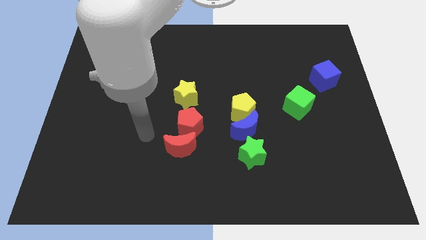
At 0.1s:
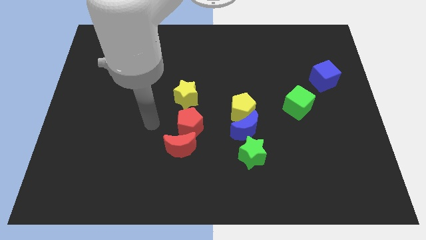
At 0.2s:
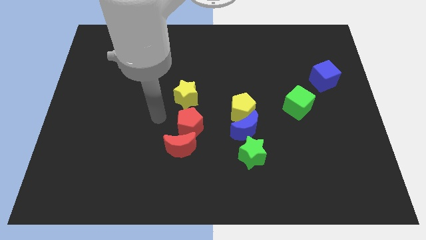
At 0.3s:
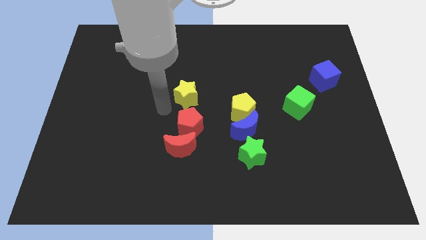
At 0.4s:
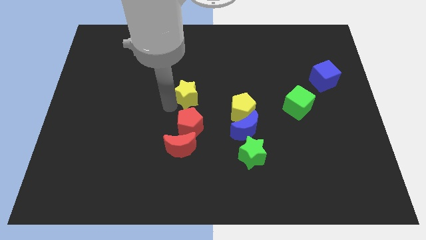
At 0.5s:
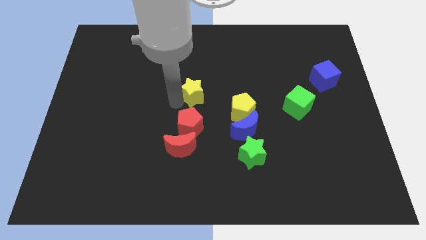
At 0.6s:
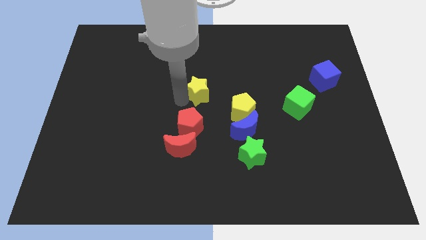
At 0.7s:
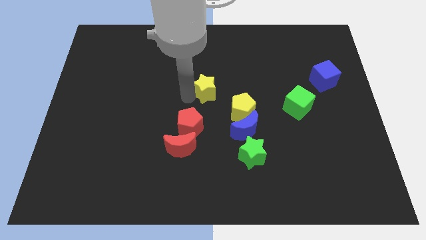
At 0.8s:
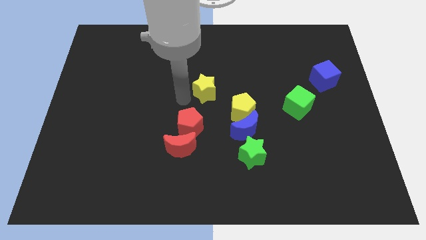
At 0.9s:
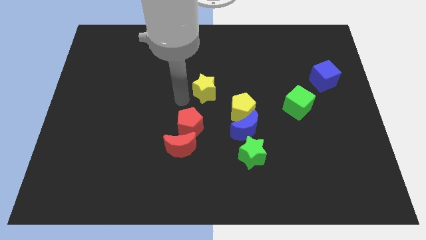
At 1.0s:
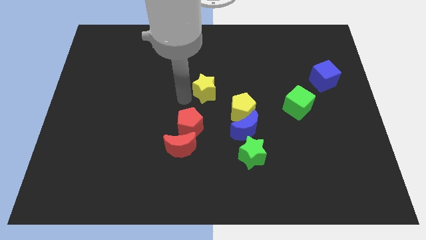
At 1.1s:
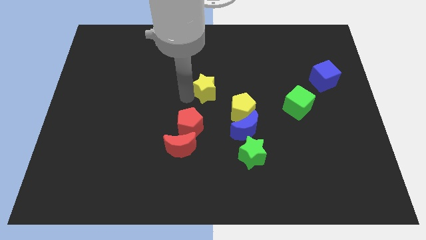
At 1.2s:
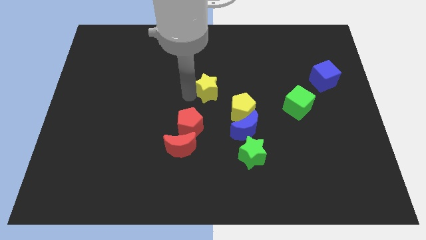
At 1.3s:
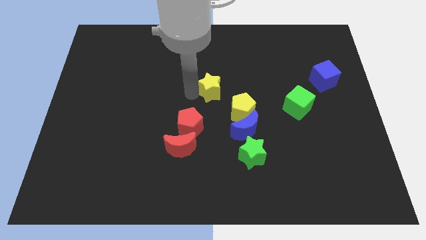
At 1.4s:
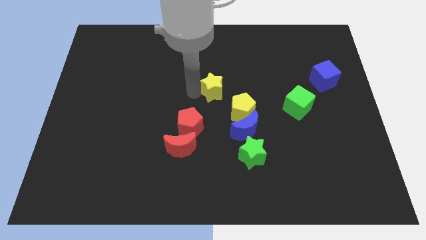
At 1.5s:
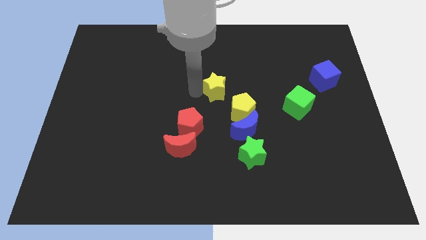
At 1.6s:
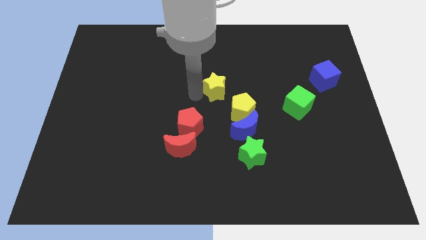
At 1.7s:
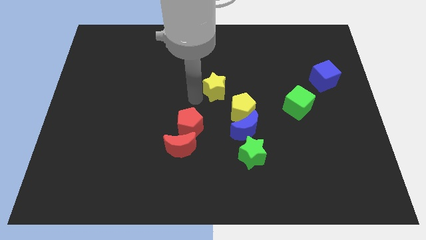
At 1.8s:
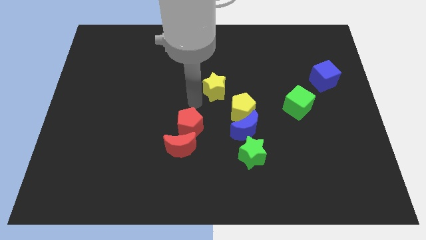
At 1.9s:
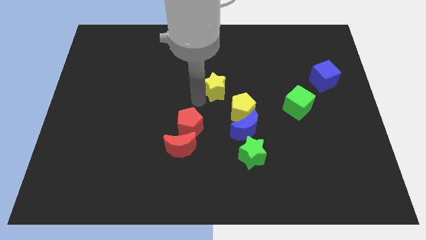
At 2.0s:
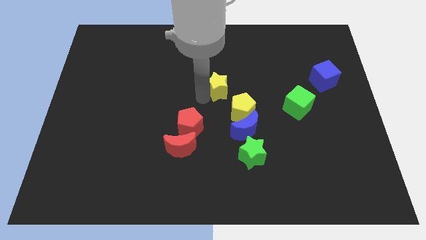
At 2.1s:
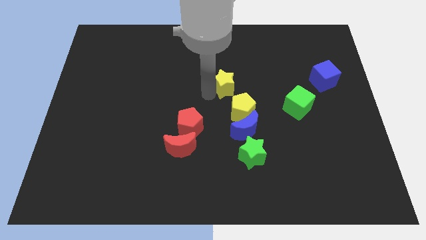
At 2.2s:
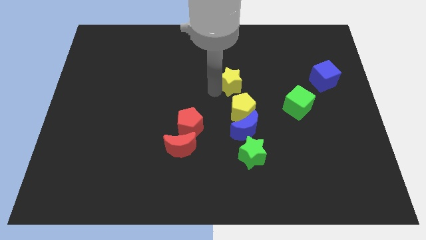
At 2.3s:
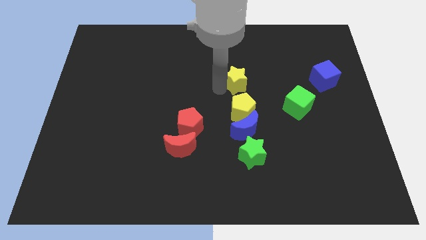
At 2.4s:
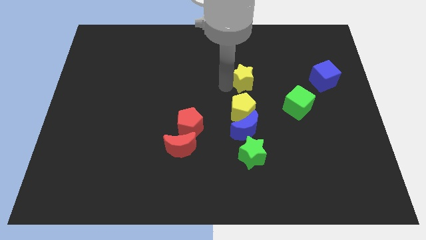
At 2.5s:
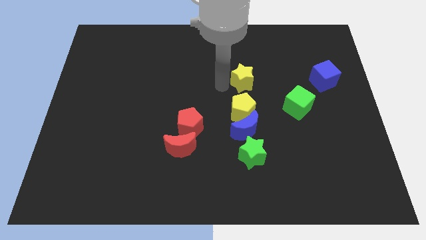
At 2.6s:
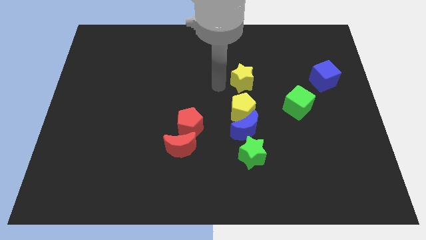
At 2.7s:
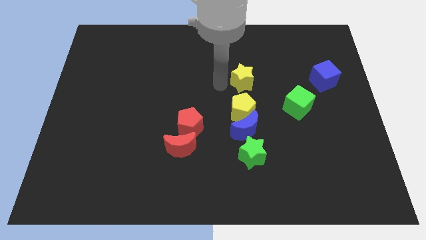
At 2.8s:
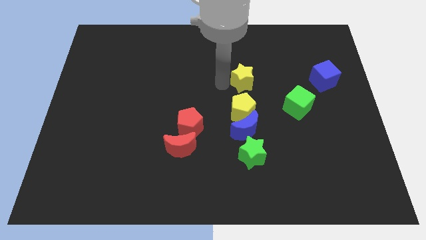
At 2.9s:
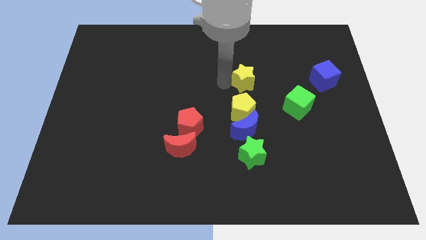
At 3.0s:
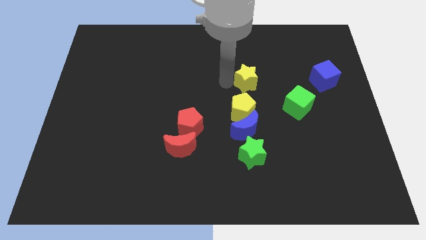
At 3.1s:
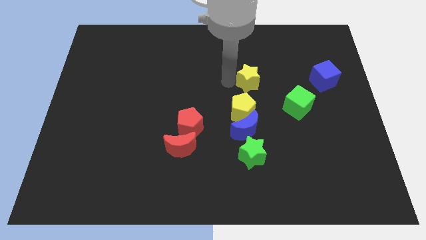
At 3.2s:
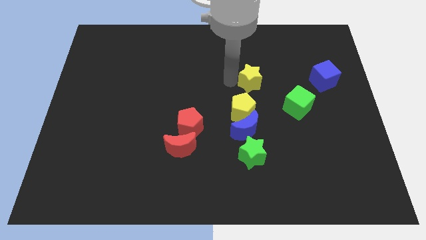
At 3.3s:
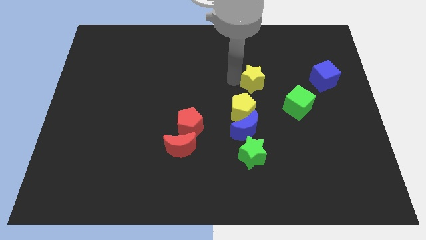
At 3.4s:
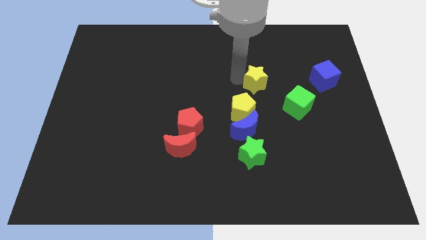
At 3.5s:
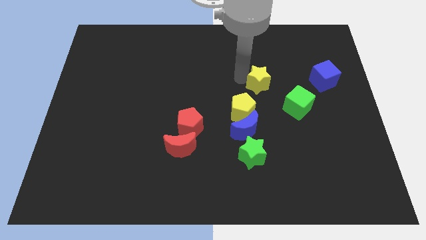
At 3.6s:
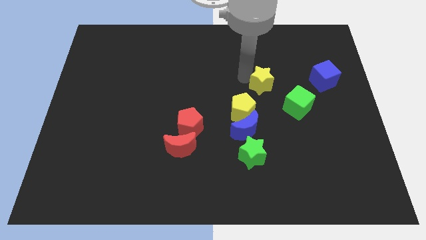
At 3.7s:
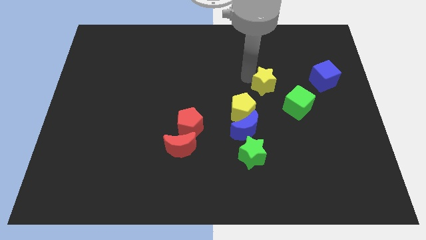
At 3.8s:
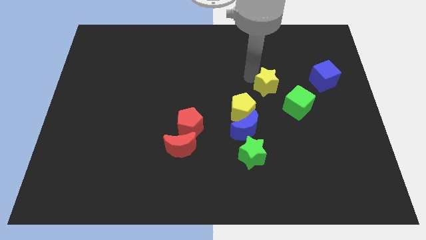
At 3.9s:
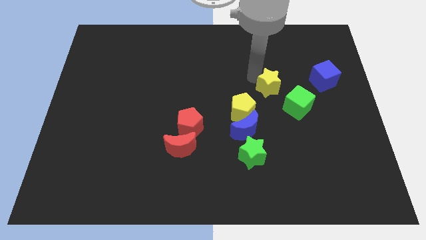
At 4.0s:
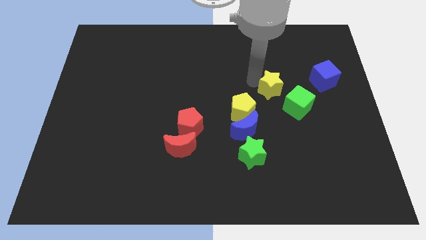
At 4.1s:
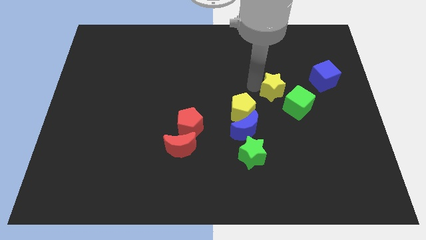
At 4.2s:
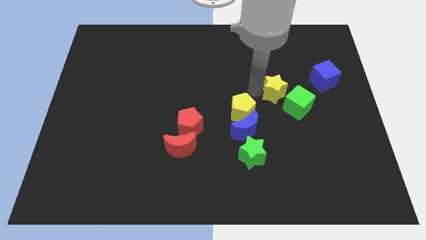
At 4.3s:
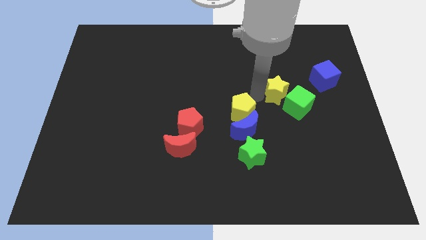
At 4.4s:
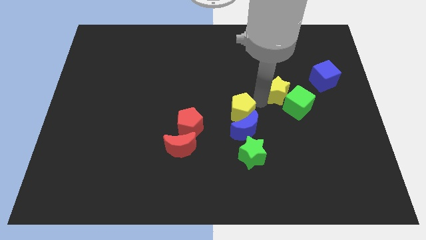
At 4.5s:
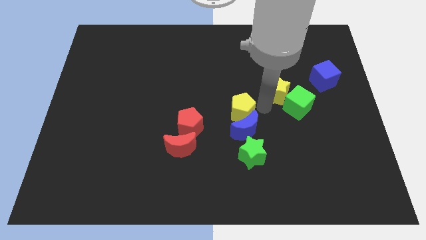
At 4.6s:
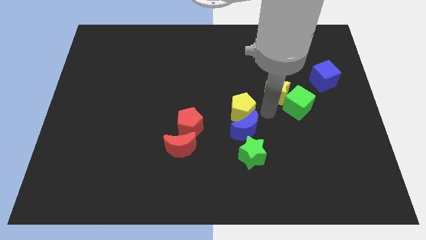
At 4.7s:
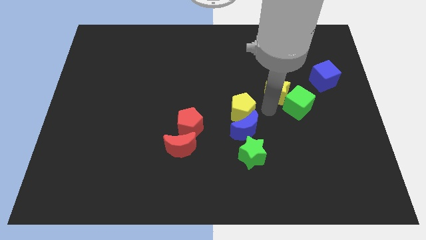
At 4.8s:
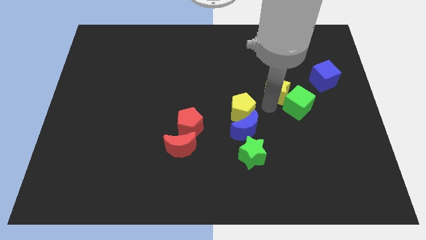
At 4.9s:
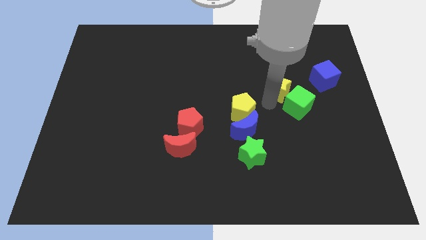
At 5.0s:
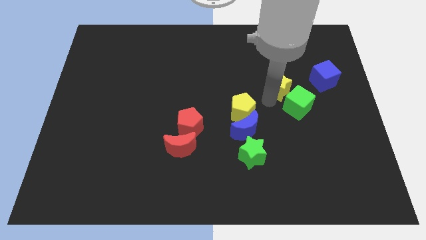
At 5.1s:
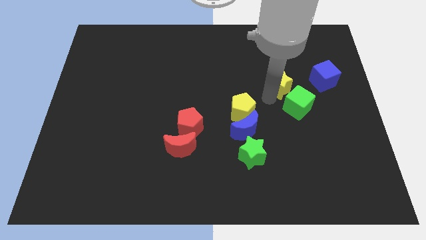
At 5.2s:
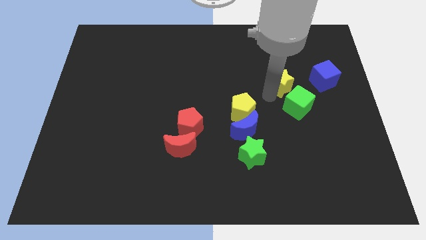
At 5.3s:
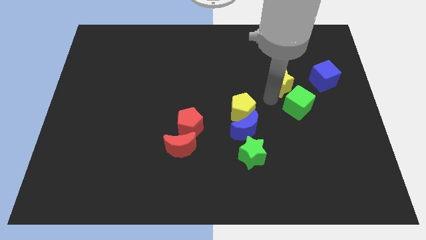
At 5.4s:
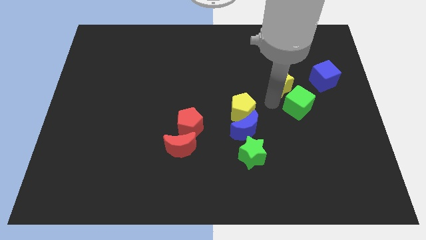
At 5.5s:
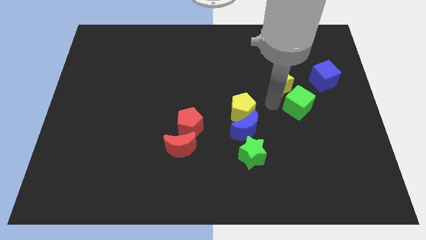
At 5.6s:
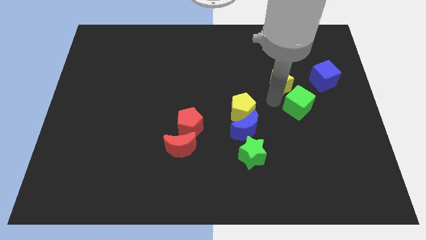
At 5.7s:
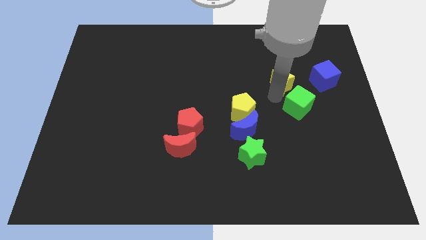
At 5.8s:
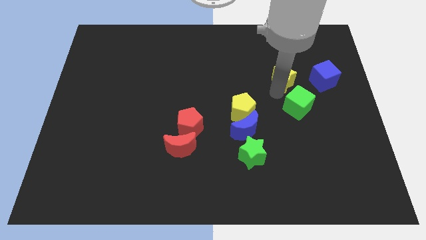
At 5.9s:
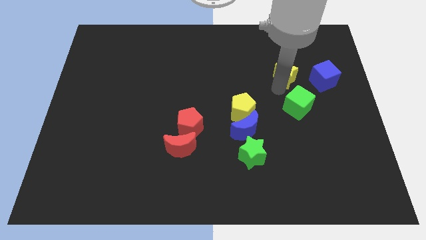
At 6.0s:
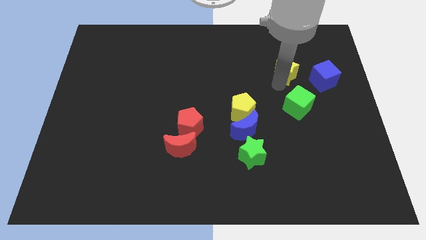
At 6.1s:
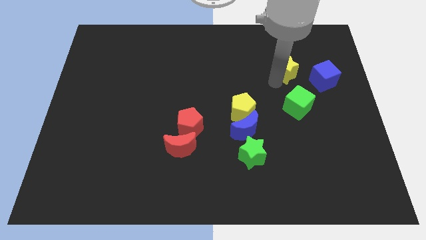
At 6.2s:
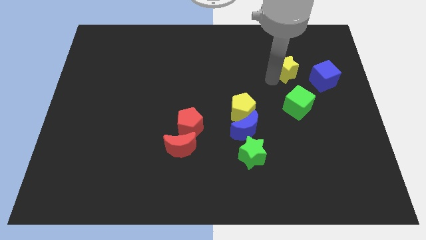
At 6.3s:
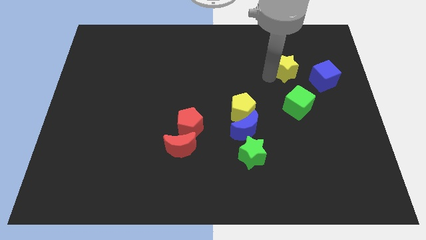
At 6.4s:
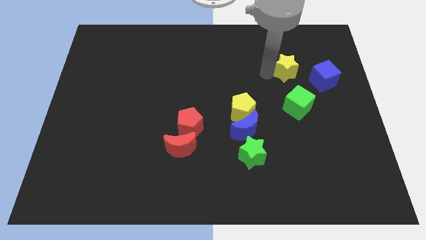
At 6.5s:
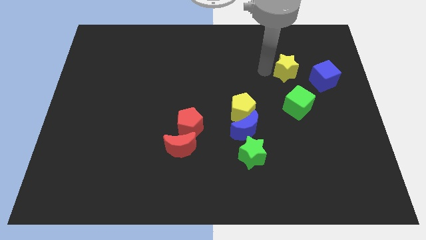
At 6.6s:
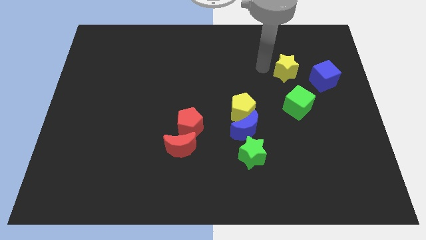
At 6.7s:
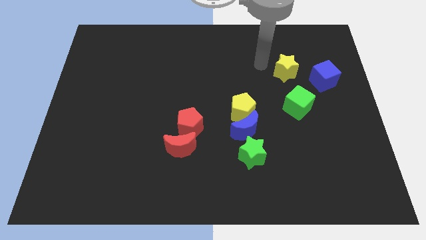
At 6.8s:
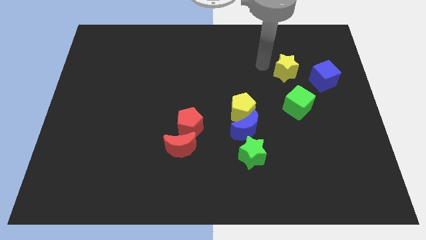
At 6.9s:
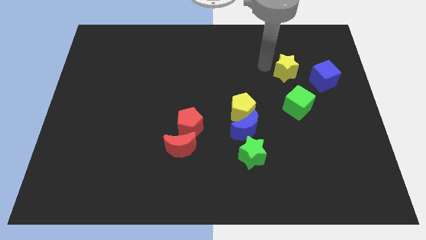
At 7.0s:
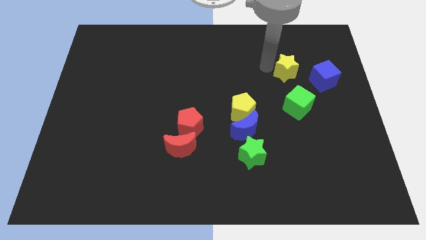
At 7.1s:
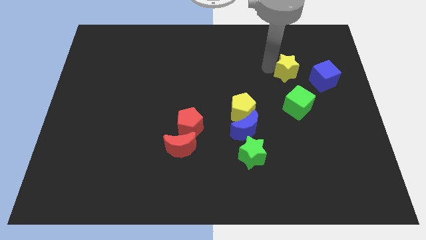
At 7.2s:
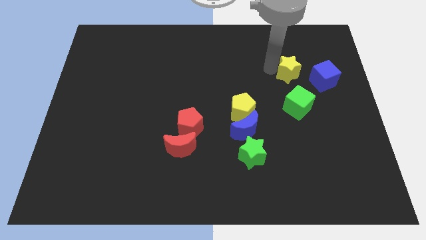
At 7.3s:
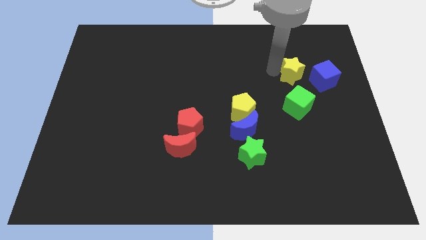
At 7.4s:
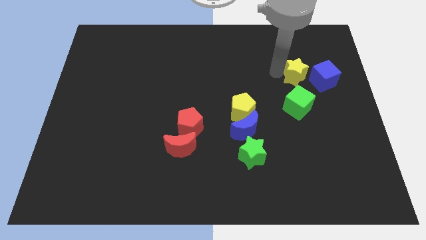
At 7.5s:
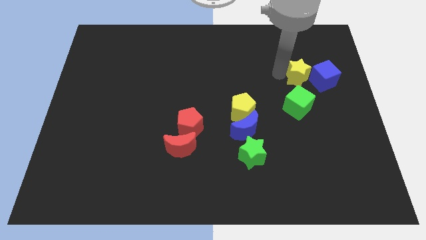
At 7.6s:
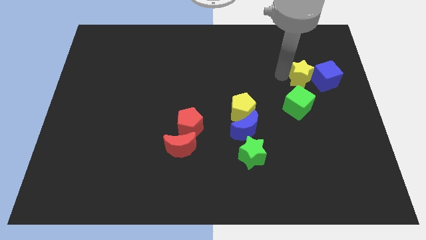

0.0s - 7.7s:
move the yellow star close to the blue cube
